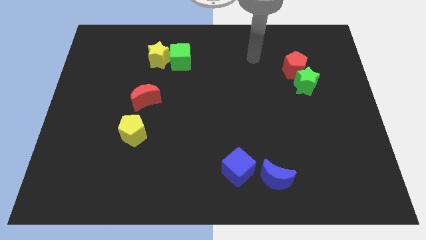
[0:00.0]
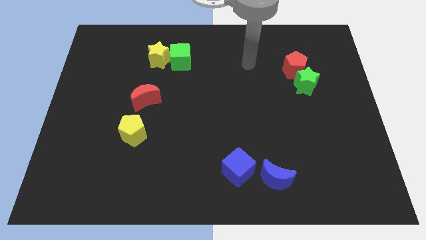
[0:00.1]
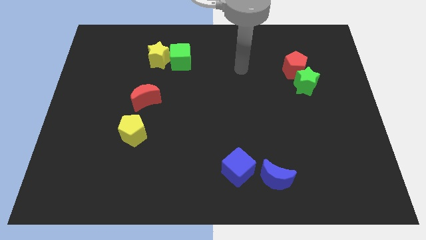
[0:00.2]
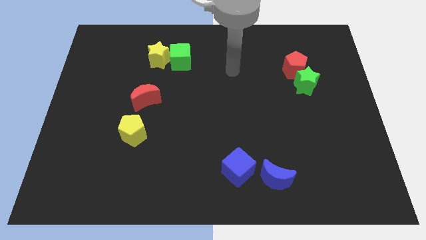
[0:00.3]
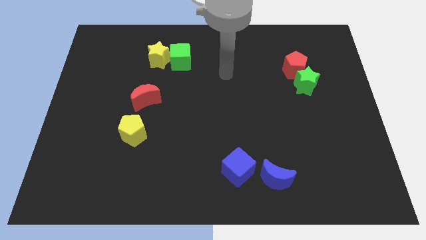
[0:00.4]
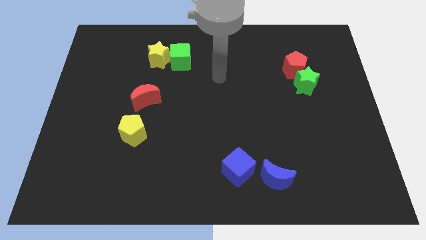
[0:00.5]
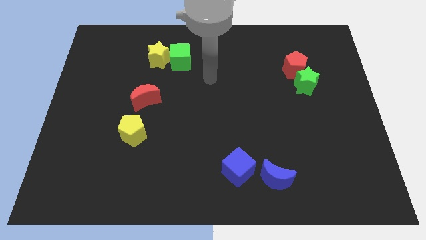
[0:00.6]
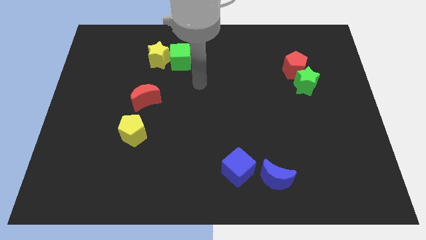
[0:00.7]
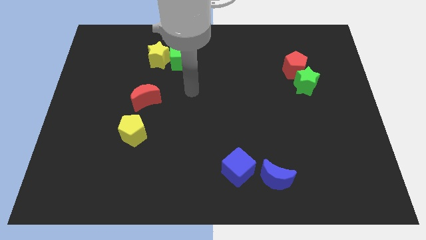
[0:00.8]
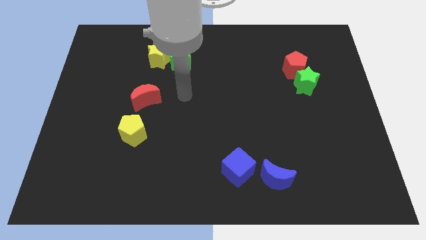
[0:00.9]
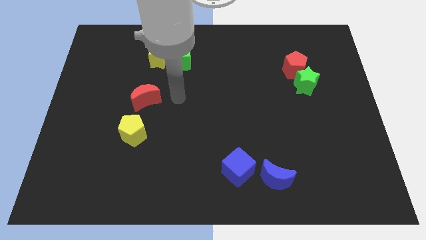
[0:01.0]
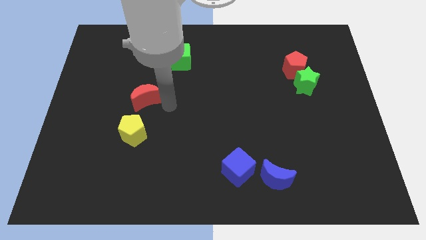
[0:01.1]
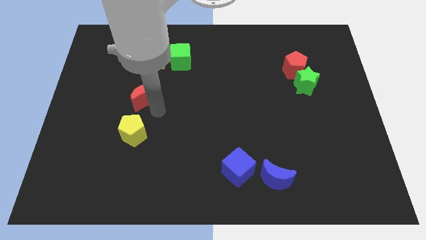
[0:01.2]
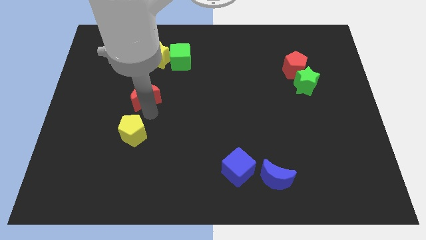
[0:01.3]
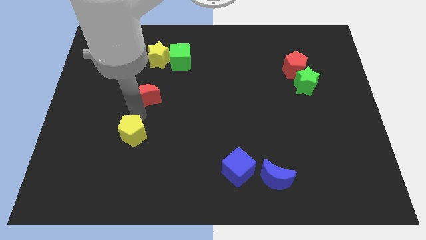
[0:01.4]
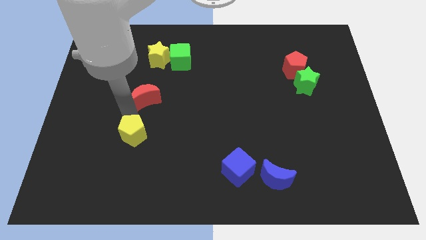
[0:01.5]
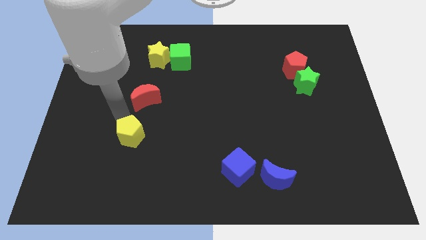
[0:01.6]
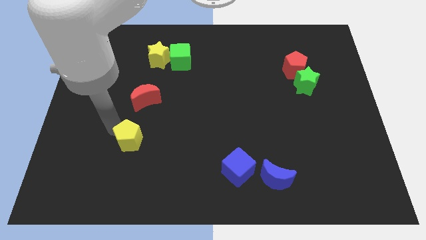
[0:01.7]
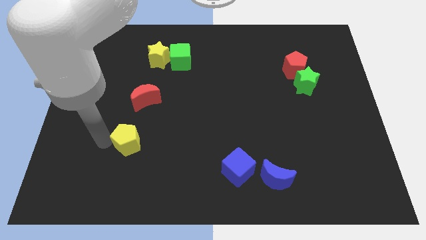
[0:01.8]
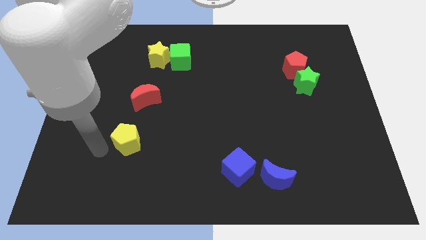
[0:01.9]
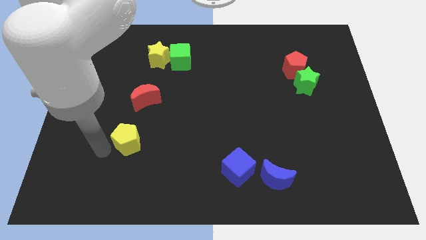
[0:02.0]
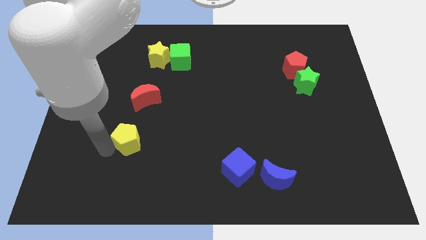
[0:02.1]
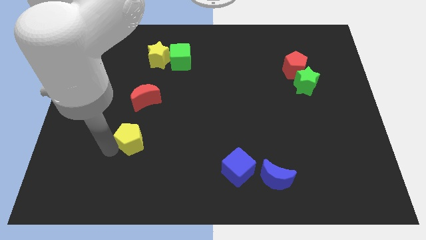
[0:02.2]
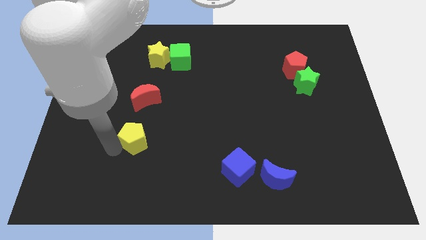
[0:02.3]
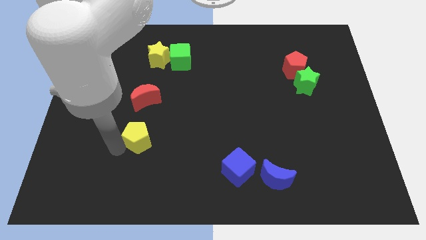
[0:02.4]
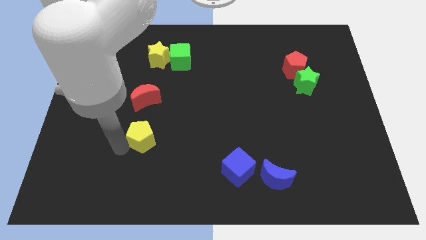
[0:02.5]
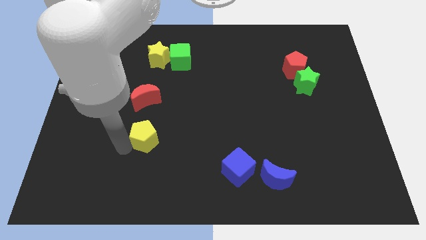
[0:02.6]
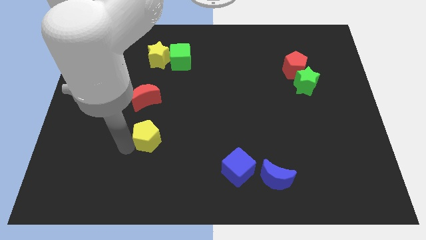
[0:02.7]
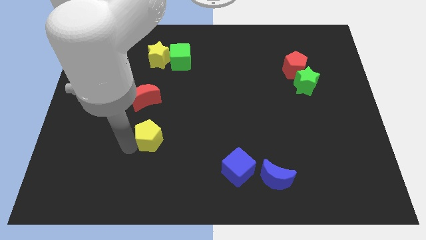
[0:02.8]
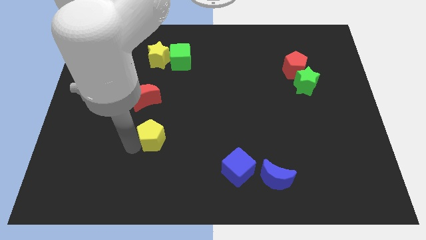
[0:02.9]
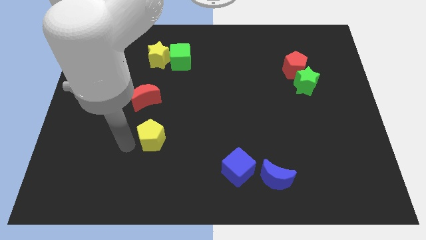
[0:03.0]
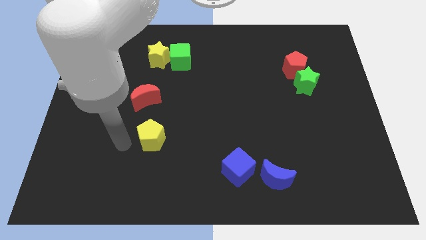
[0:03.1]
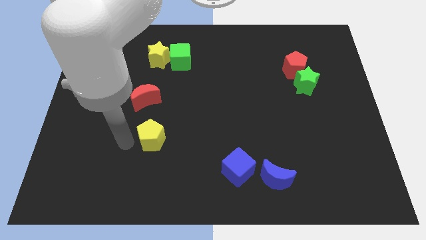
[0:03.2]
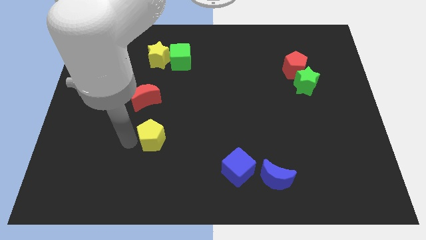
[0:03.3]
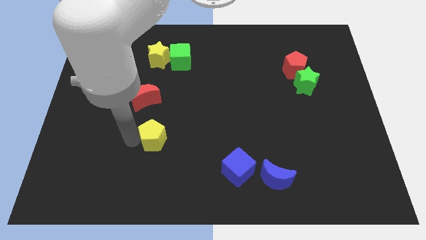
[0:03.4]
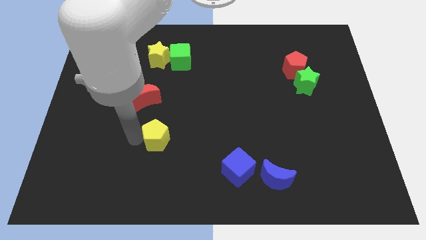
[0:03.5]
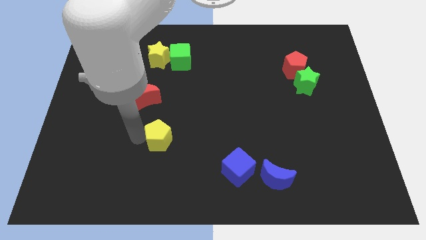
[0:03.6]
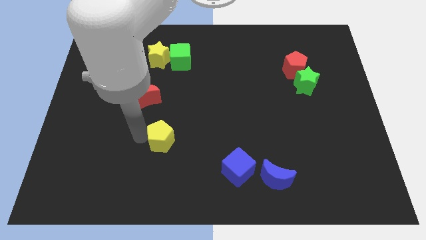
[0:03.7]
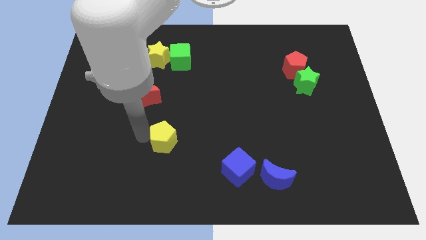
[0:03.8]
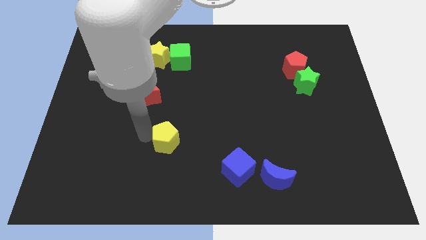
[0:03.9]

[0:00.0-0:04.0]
slide the yellow pentagon somewhat right

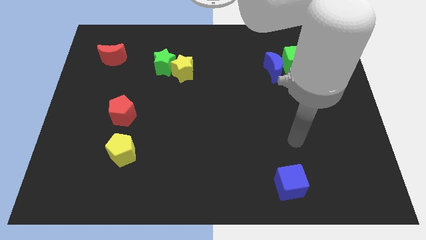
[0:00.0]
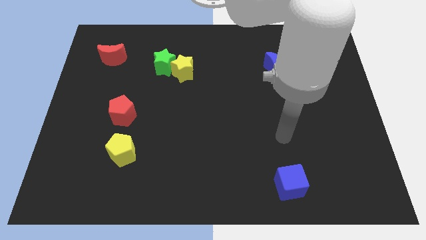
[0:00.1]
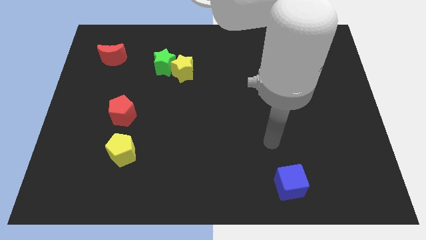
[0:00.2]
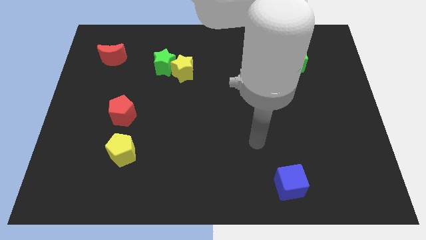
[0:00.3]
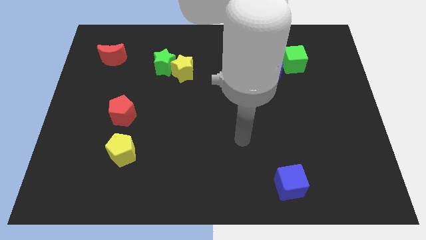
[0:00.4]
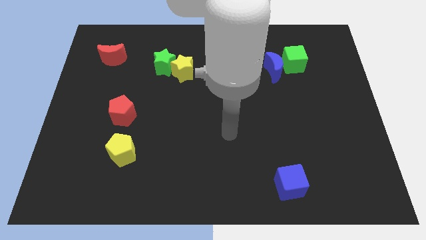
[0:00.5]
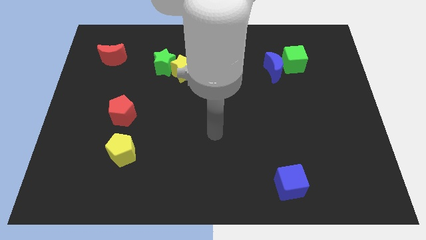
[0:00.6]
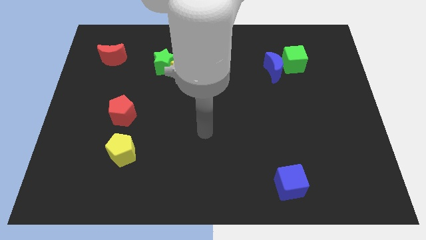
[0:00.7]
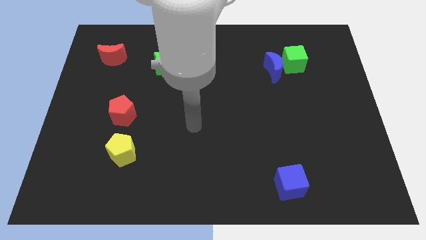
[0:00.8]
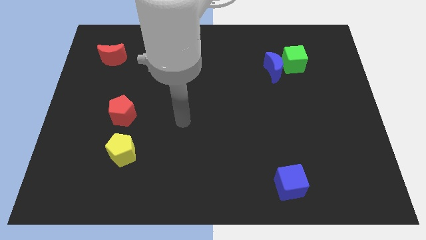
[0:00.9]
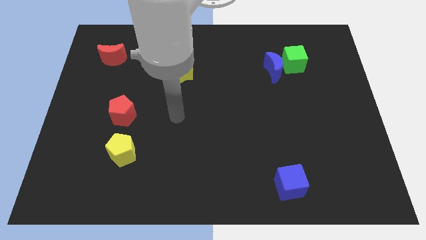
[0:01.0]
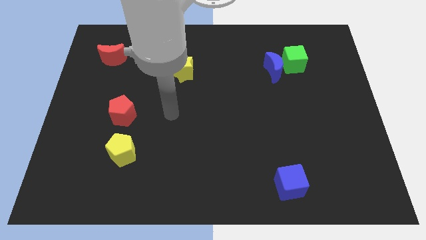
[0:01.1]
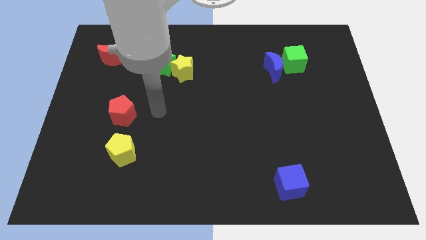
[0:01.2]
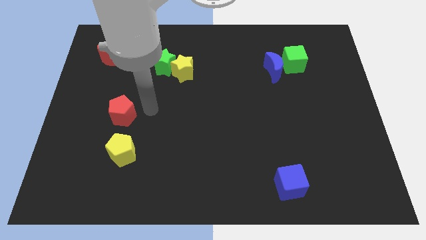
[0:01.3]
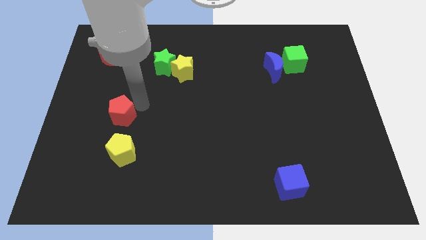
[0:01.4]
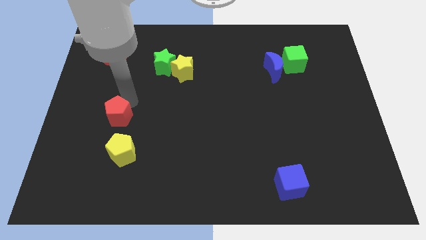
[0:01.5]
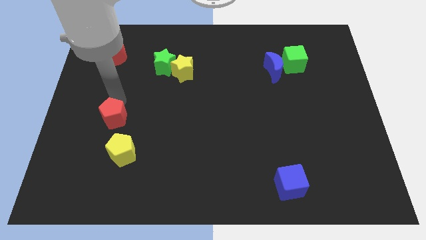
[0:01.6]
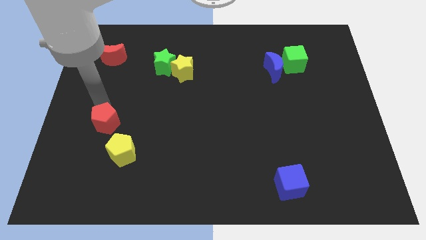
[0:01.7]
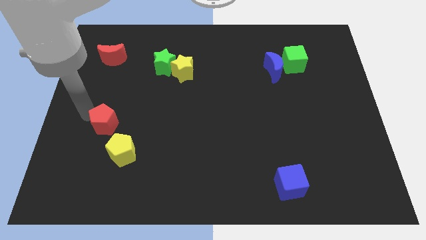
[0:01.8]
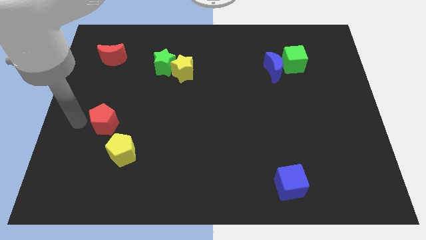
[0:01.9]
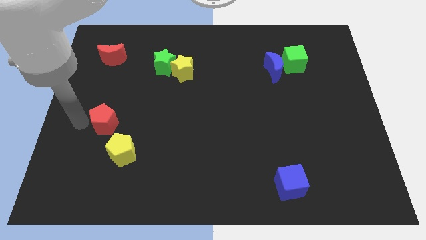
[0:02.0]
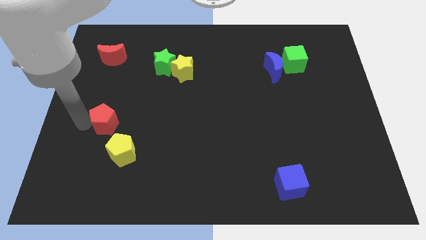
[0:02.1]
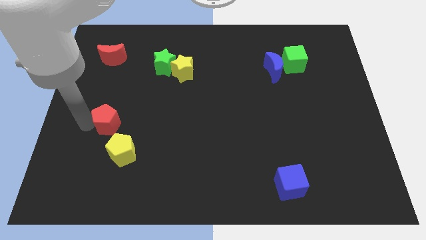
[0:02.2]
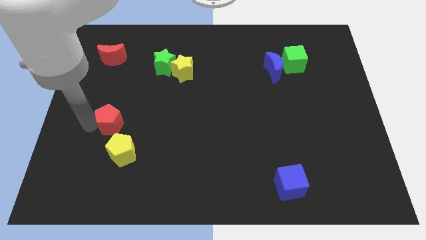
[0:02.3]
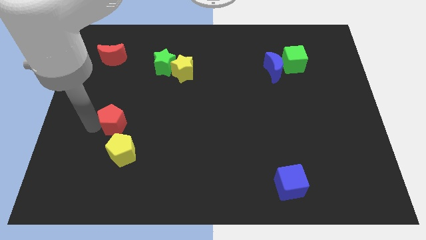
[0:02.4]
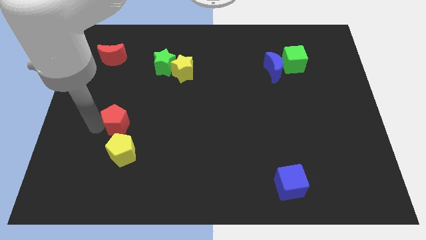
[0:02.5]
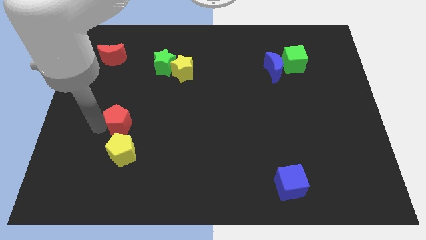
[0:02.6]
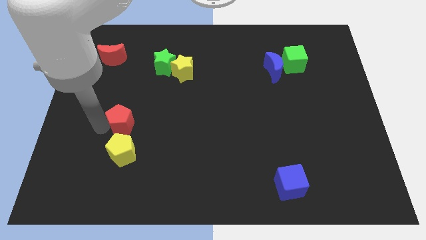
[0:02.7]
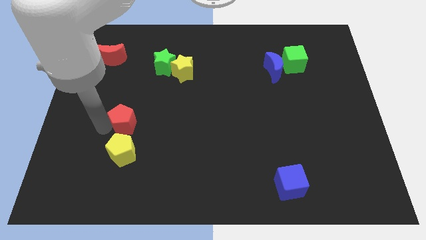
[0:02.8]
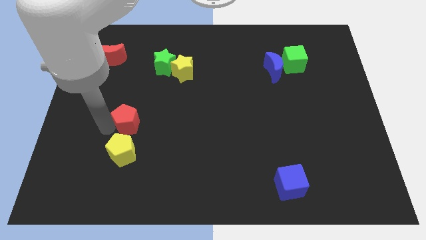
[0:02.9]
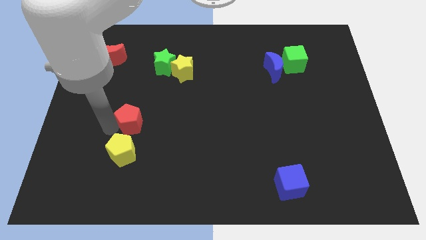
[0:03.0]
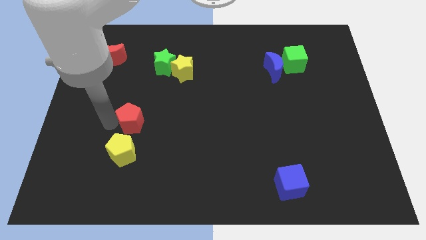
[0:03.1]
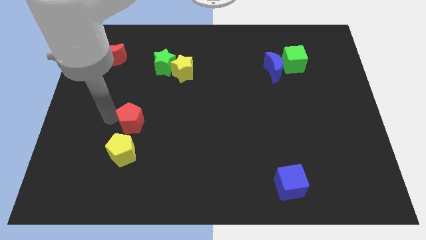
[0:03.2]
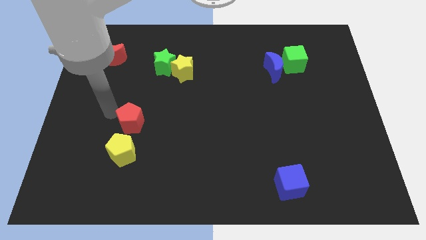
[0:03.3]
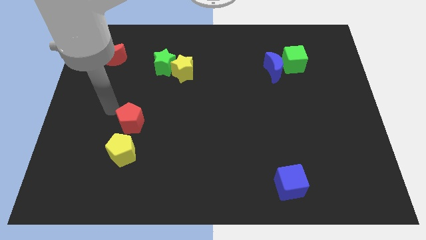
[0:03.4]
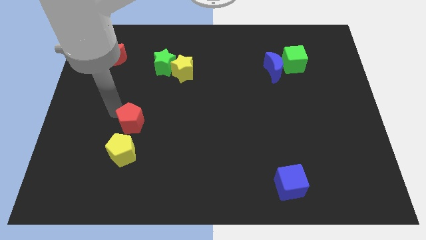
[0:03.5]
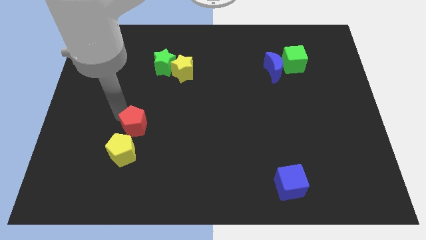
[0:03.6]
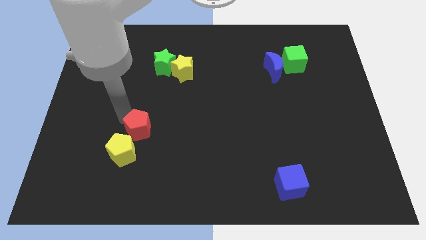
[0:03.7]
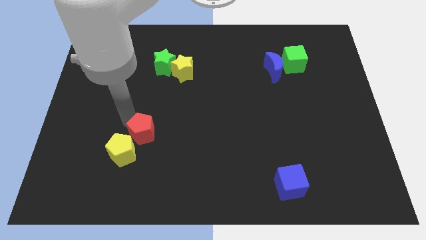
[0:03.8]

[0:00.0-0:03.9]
move the red pentagon down and right diagonally slightly
